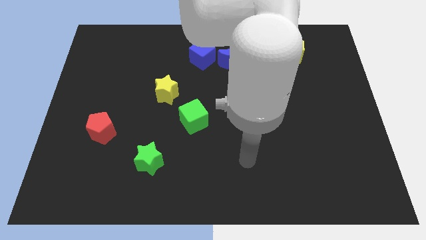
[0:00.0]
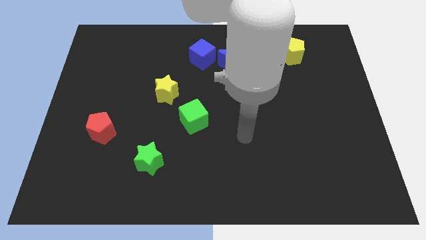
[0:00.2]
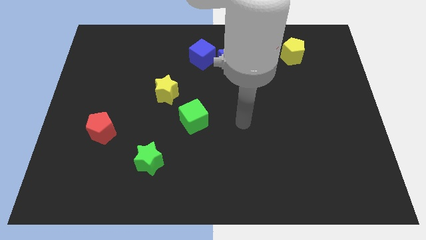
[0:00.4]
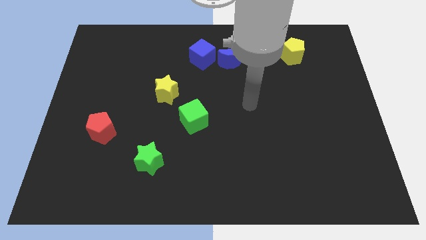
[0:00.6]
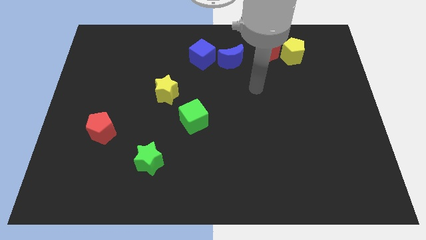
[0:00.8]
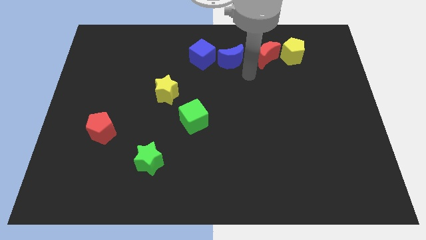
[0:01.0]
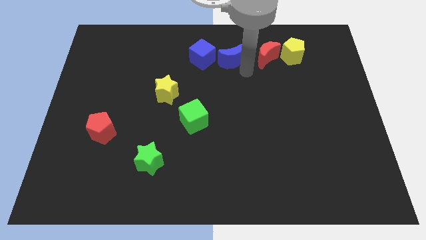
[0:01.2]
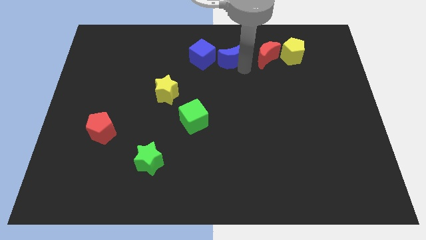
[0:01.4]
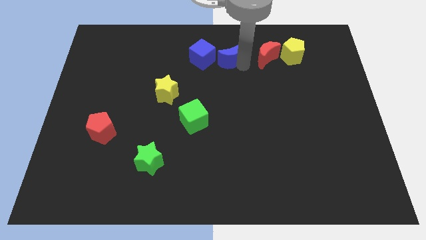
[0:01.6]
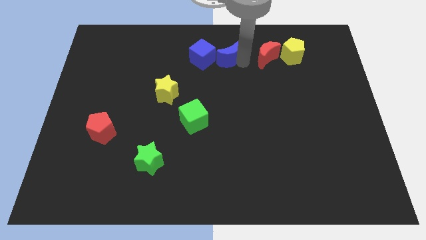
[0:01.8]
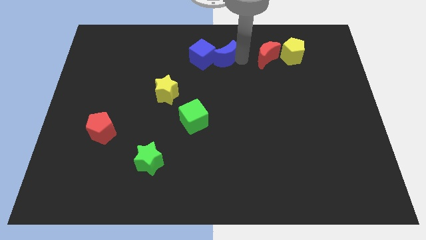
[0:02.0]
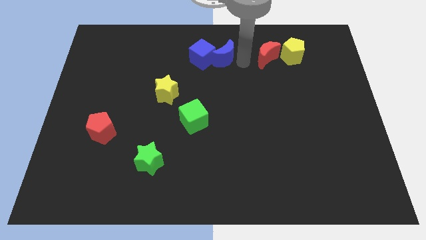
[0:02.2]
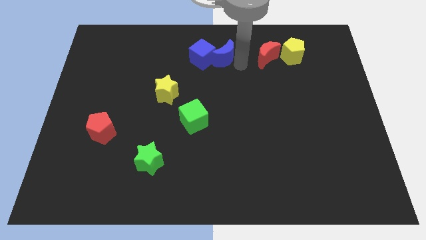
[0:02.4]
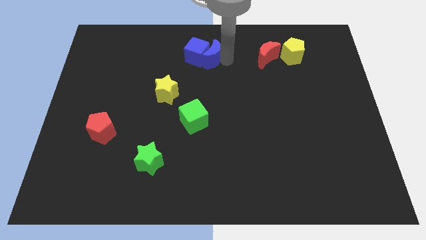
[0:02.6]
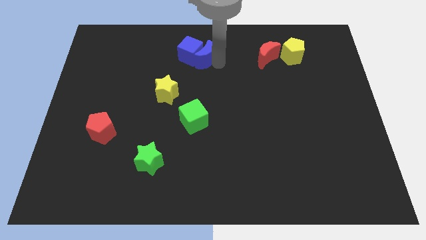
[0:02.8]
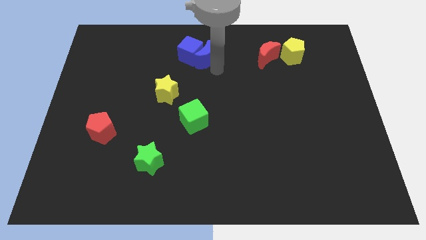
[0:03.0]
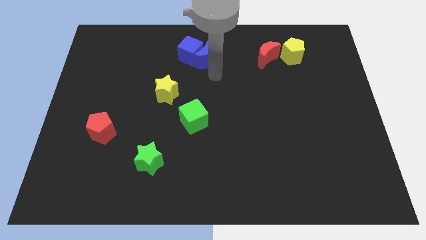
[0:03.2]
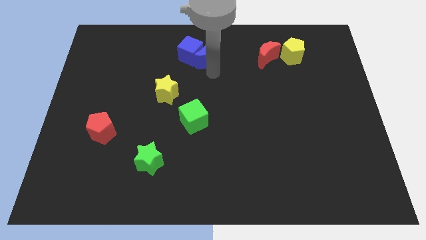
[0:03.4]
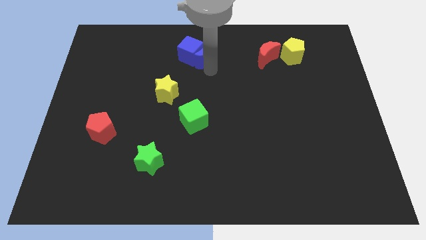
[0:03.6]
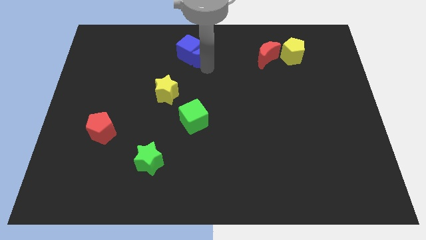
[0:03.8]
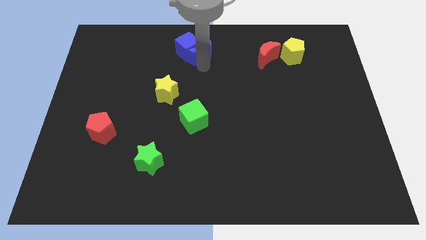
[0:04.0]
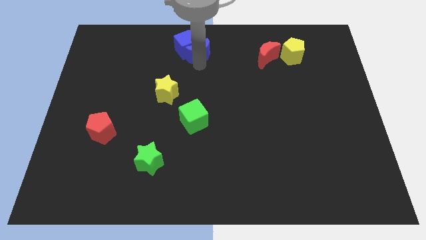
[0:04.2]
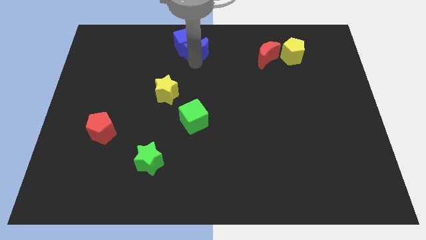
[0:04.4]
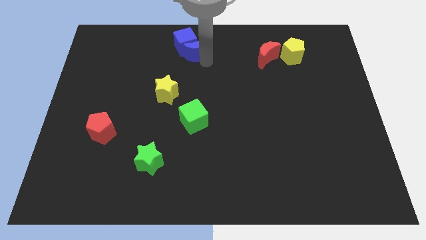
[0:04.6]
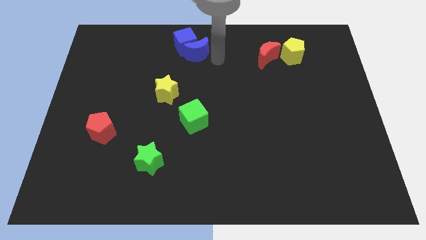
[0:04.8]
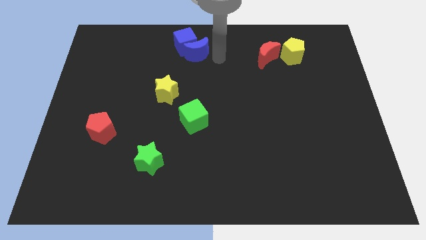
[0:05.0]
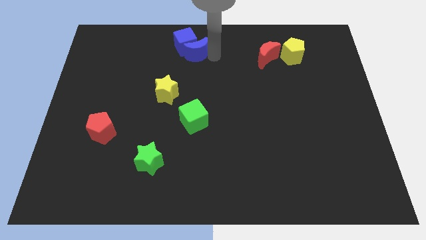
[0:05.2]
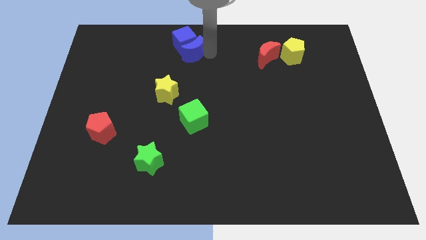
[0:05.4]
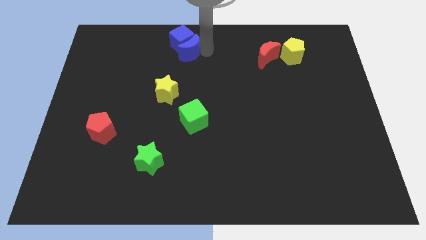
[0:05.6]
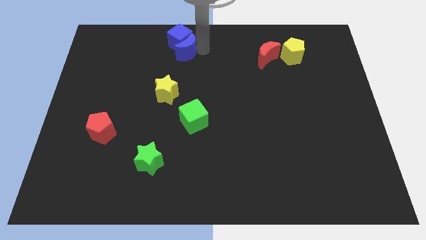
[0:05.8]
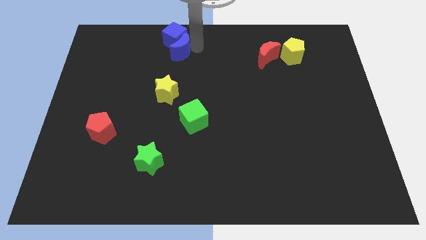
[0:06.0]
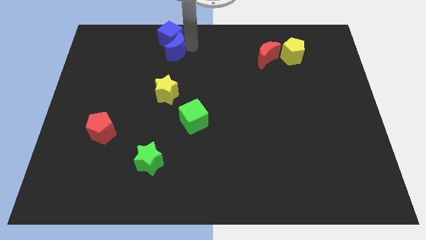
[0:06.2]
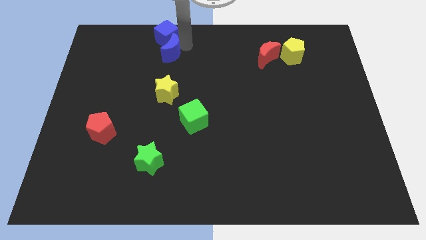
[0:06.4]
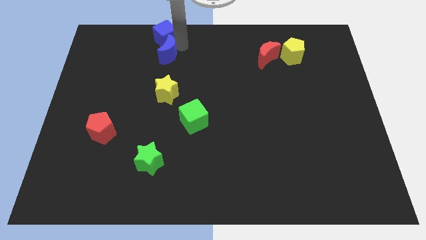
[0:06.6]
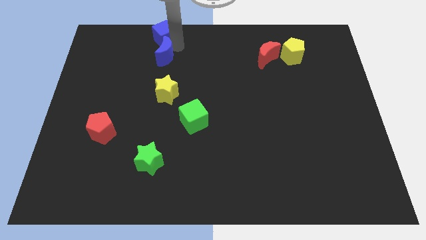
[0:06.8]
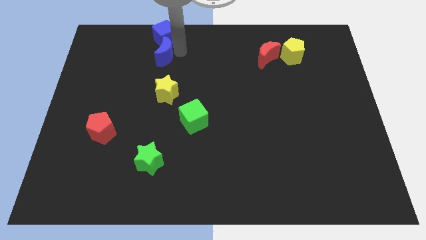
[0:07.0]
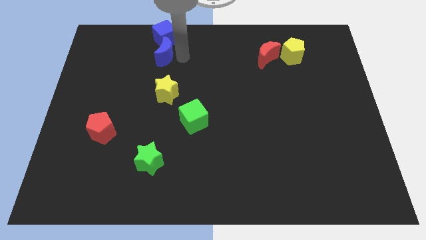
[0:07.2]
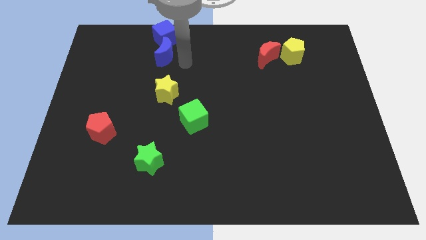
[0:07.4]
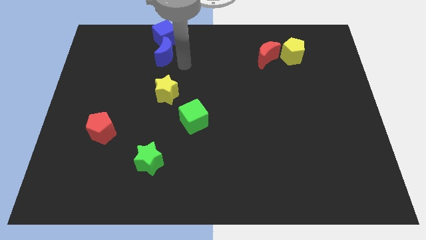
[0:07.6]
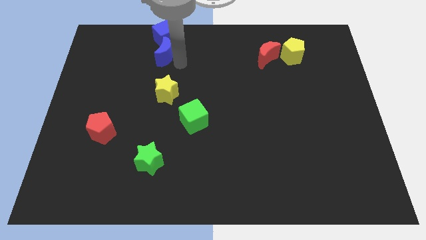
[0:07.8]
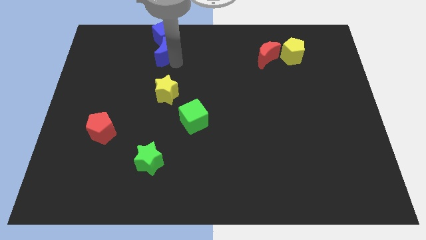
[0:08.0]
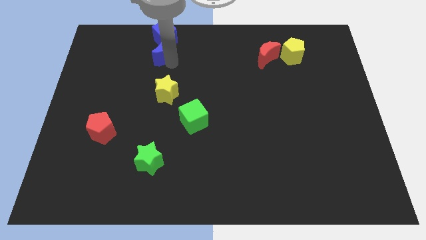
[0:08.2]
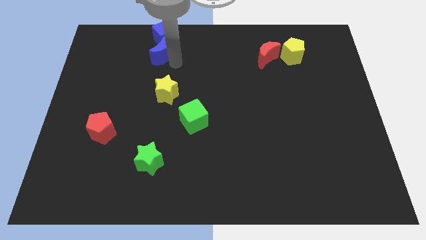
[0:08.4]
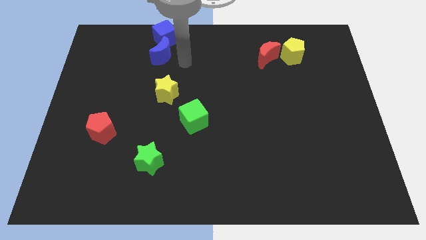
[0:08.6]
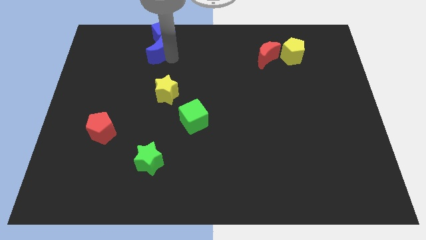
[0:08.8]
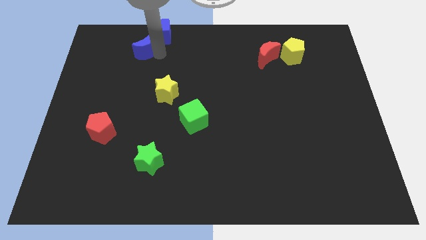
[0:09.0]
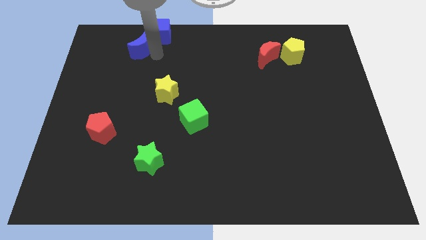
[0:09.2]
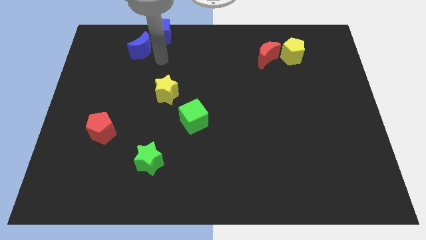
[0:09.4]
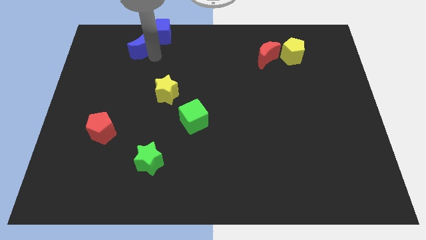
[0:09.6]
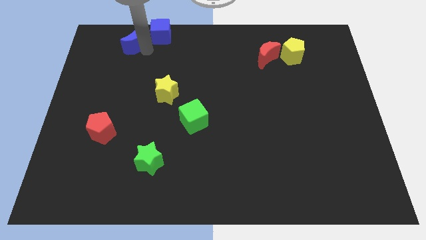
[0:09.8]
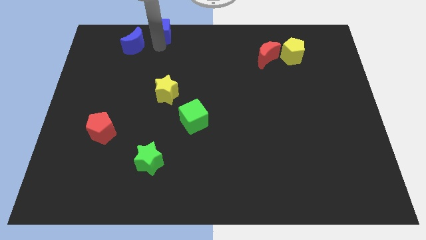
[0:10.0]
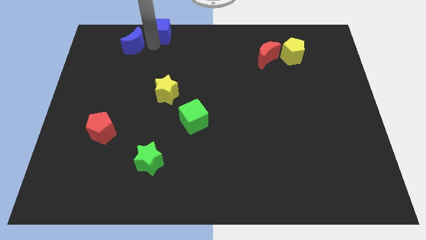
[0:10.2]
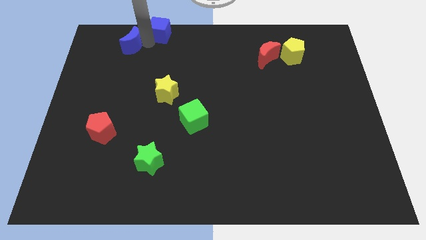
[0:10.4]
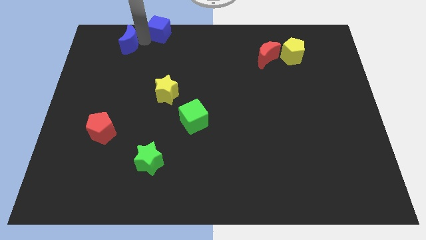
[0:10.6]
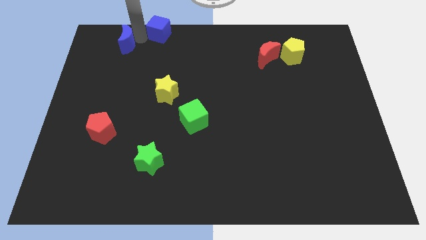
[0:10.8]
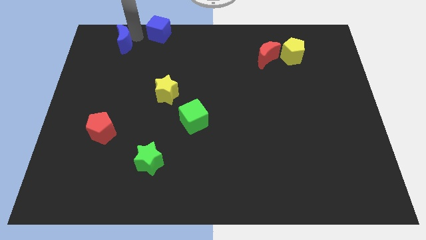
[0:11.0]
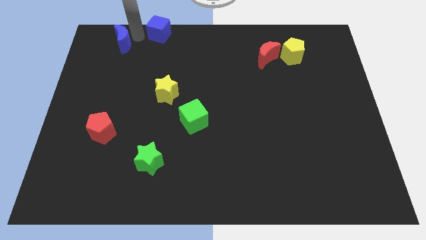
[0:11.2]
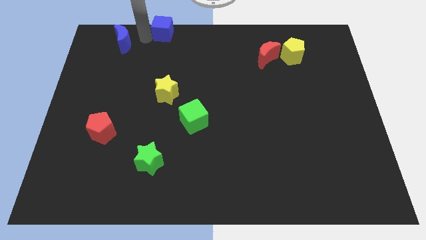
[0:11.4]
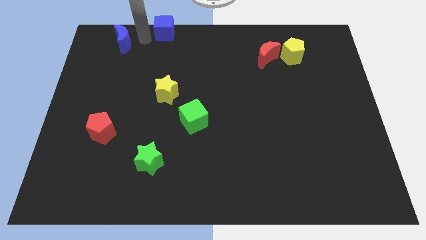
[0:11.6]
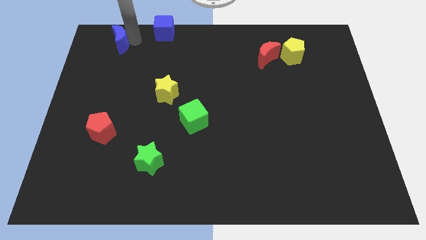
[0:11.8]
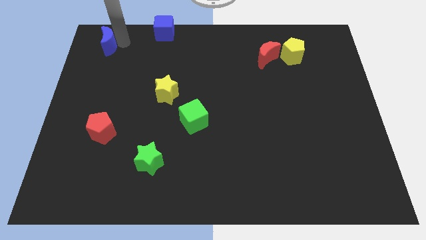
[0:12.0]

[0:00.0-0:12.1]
push the blue moon to the top left corner
